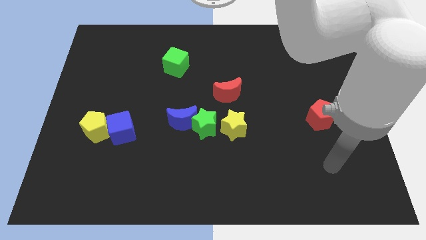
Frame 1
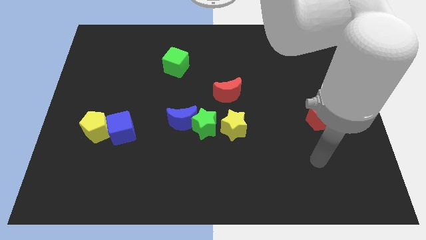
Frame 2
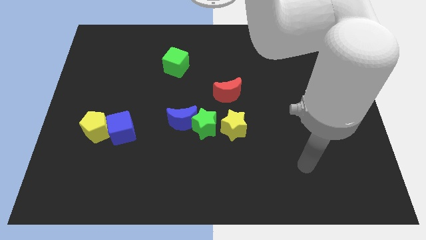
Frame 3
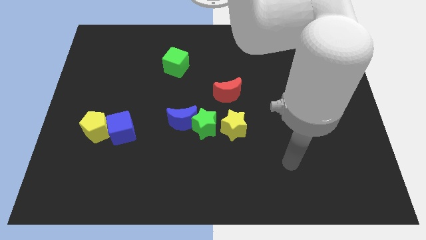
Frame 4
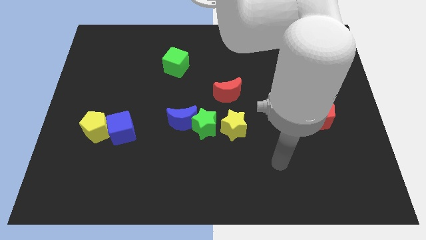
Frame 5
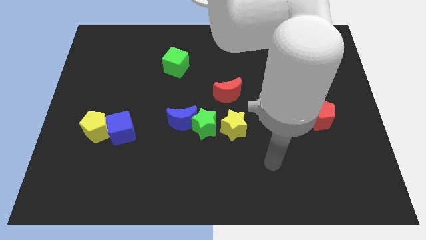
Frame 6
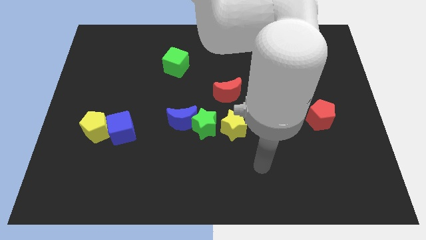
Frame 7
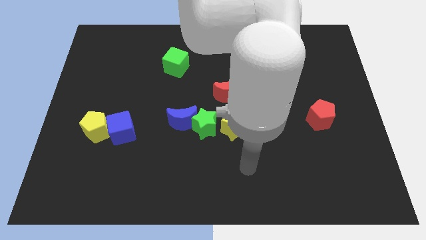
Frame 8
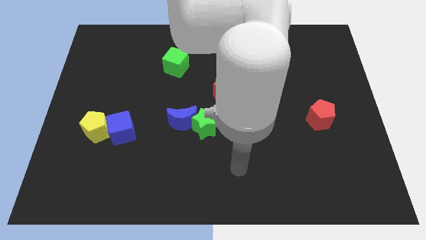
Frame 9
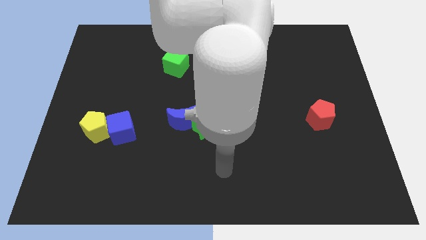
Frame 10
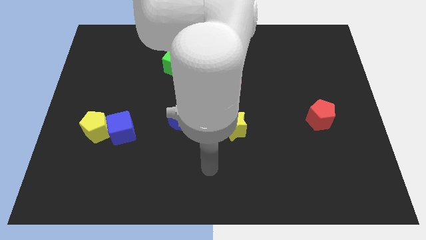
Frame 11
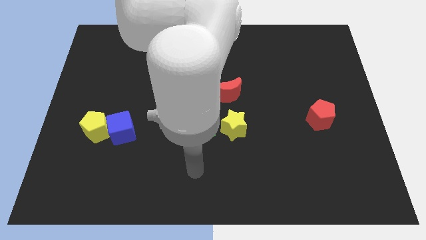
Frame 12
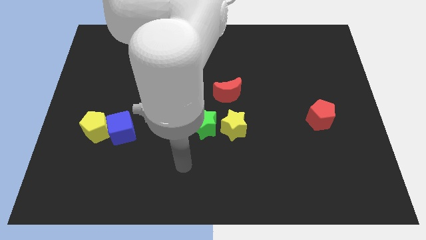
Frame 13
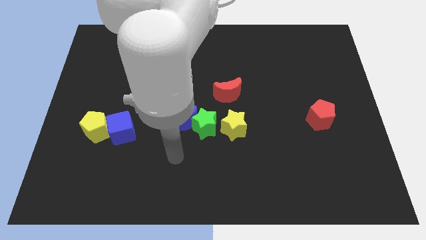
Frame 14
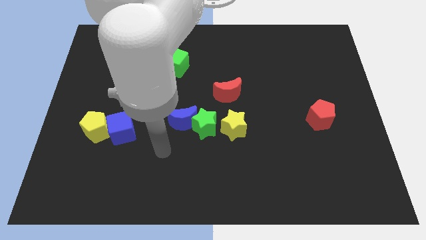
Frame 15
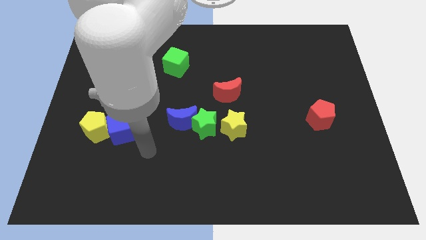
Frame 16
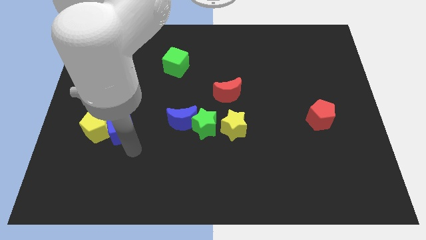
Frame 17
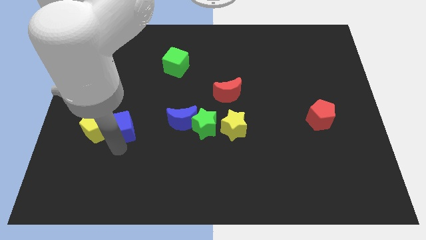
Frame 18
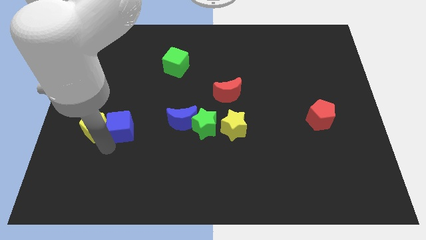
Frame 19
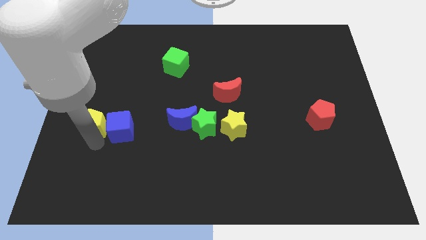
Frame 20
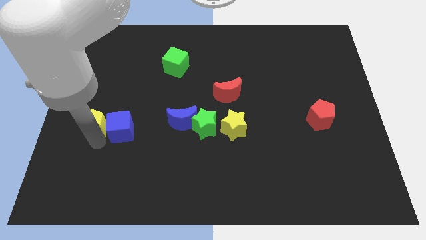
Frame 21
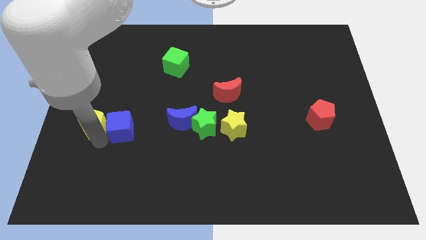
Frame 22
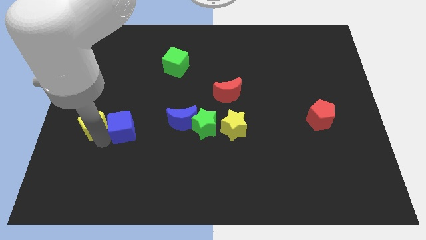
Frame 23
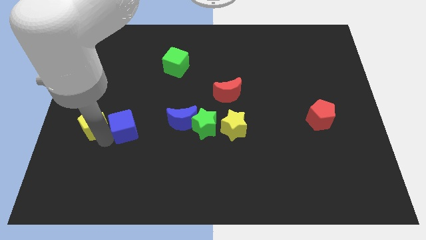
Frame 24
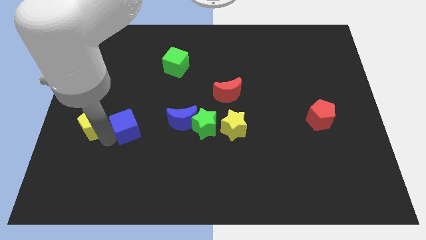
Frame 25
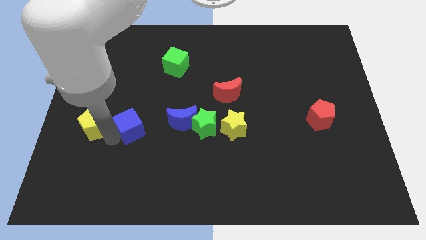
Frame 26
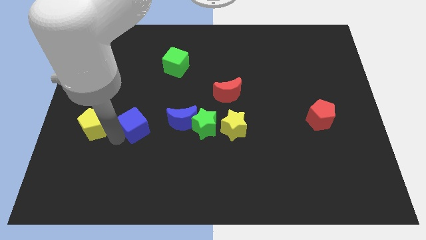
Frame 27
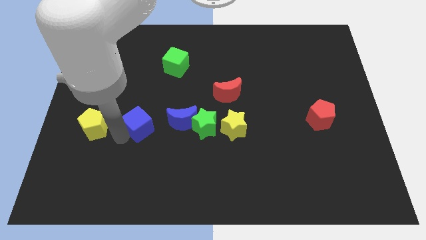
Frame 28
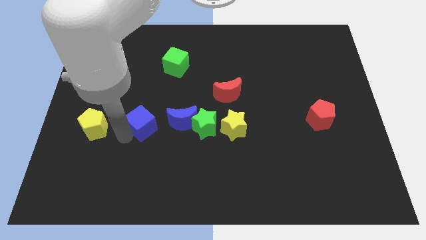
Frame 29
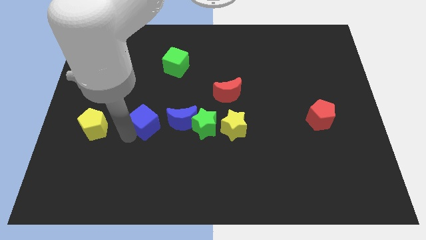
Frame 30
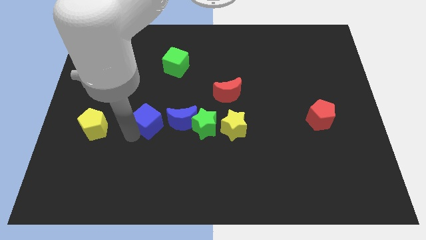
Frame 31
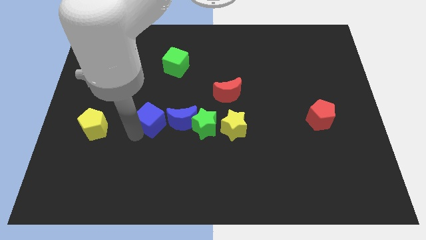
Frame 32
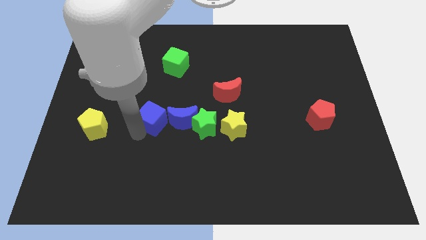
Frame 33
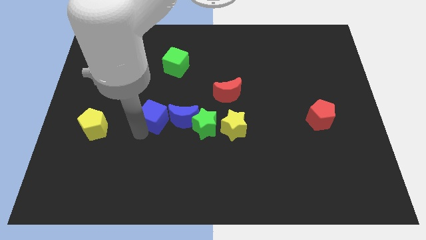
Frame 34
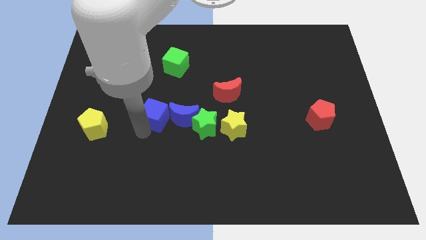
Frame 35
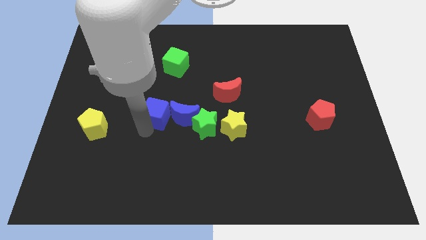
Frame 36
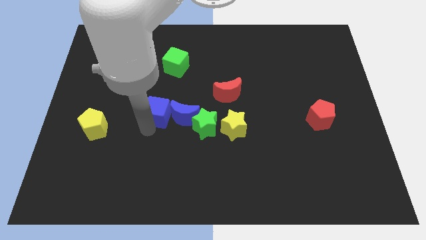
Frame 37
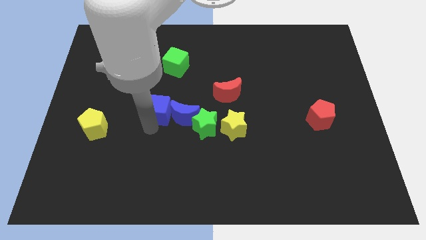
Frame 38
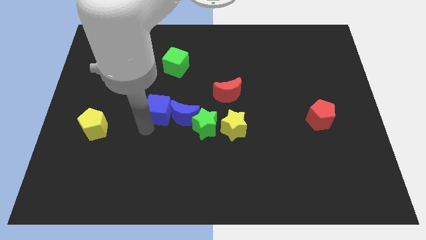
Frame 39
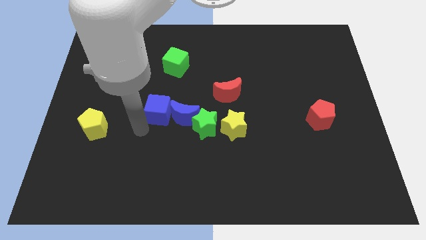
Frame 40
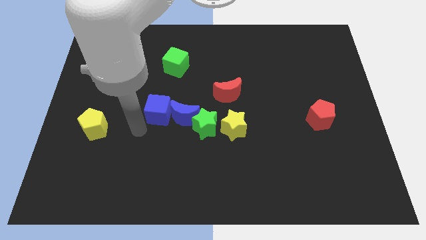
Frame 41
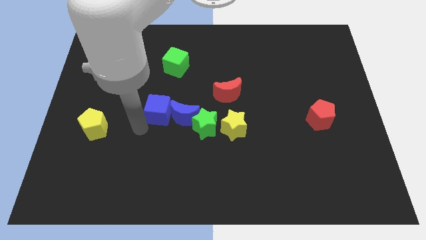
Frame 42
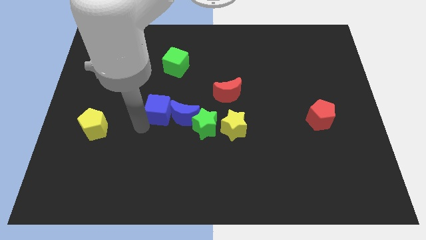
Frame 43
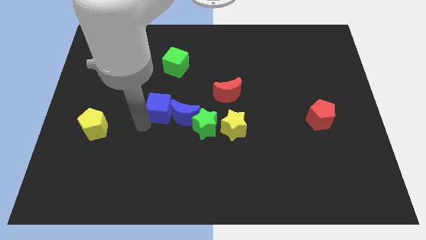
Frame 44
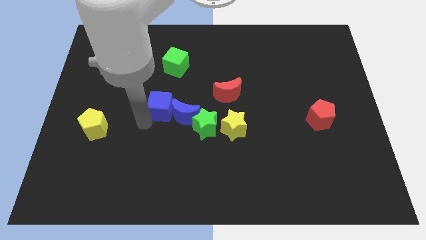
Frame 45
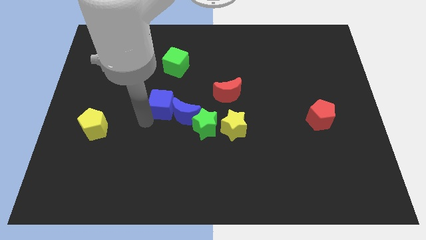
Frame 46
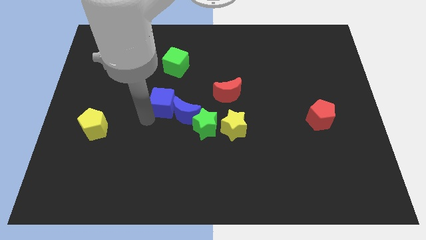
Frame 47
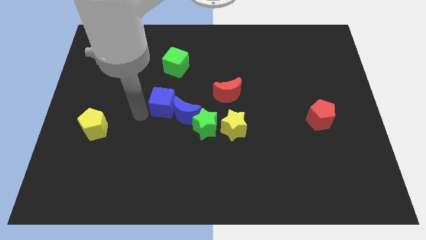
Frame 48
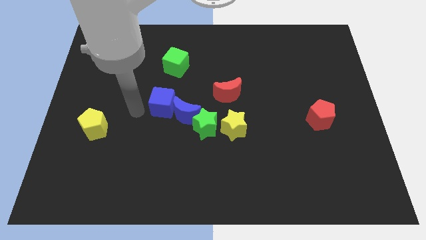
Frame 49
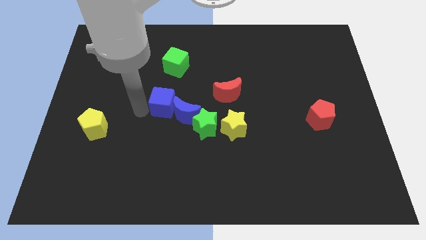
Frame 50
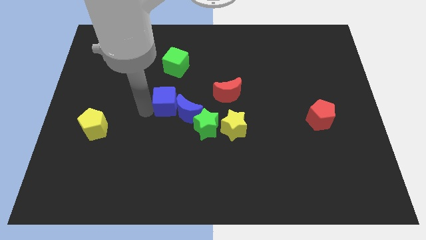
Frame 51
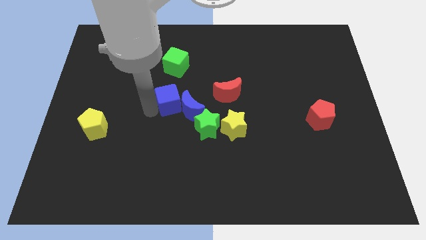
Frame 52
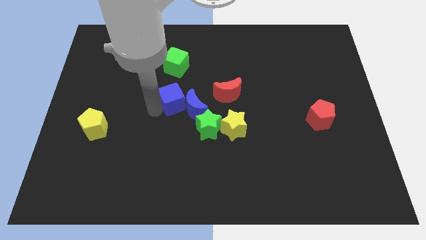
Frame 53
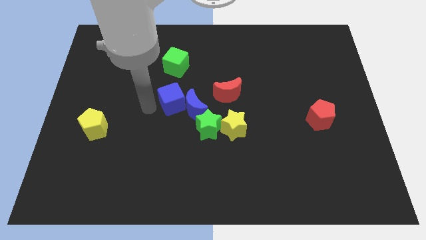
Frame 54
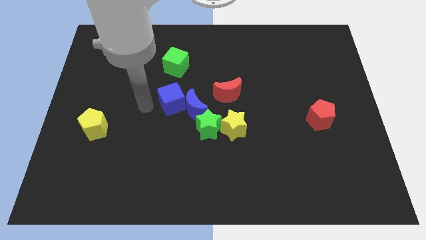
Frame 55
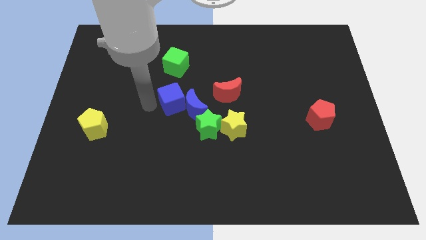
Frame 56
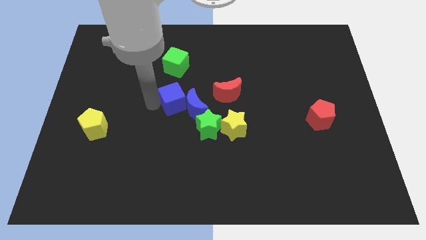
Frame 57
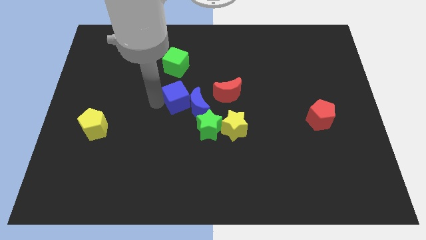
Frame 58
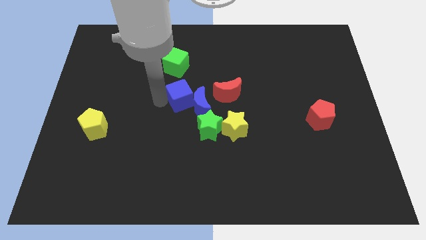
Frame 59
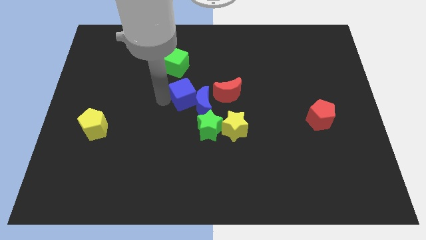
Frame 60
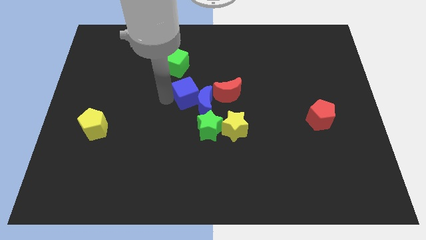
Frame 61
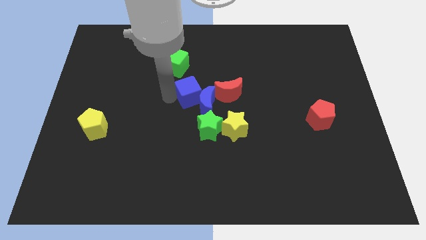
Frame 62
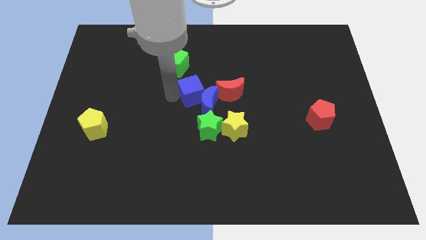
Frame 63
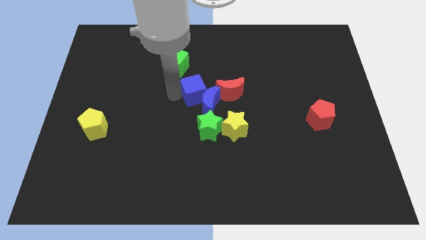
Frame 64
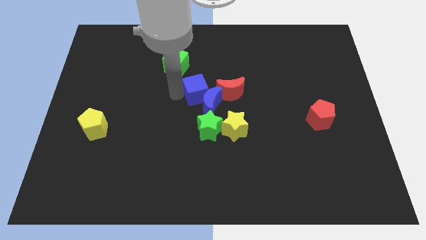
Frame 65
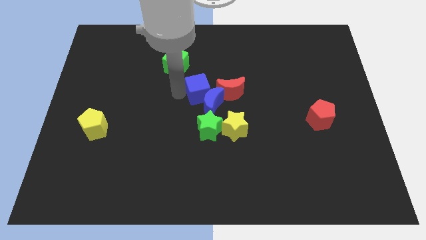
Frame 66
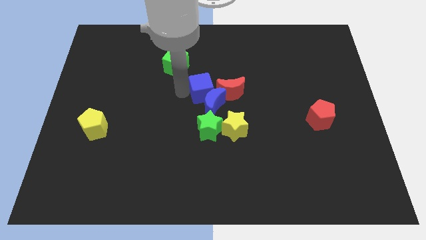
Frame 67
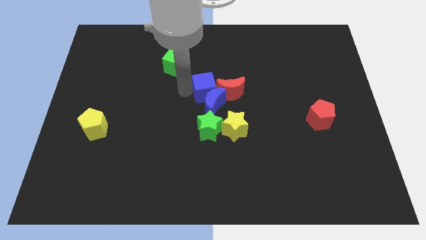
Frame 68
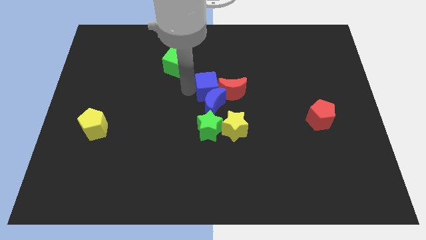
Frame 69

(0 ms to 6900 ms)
move the blue cube next to the red moon

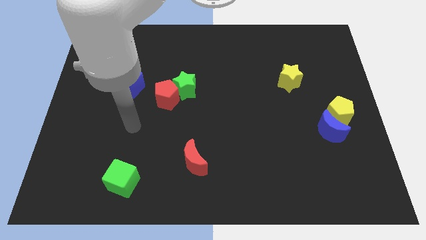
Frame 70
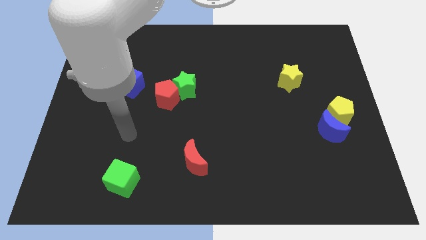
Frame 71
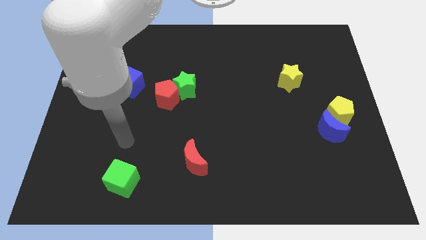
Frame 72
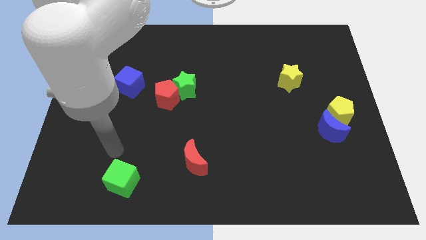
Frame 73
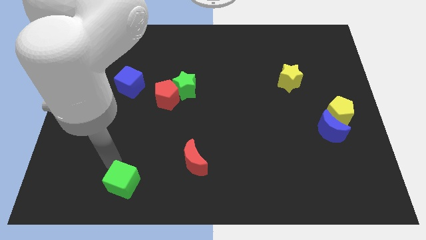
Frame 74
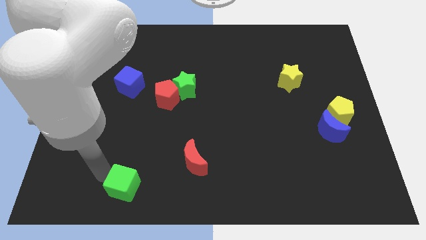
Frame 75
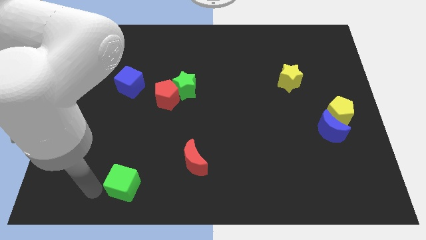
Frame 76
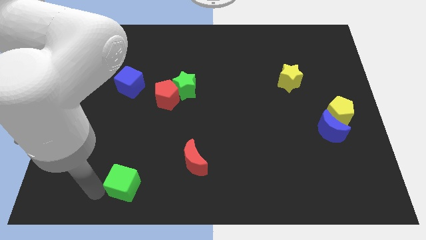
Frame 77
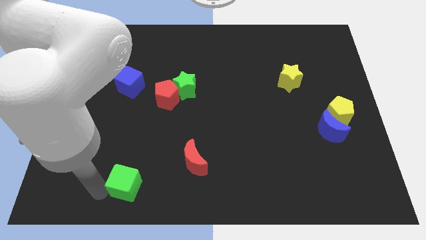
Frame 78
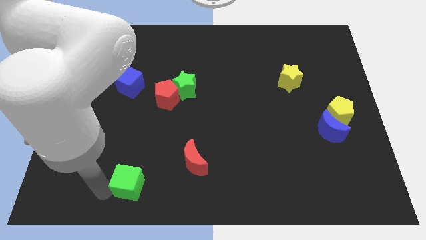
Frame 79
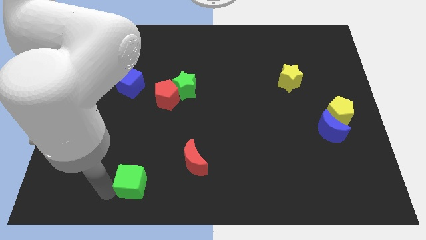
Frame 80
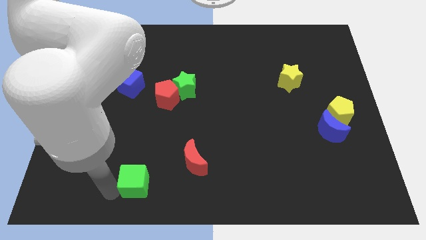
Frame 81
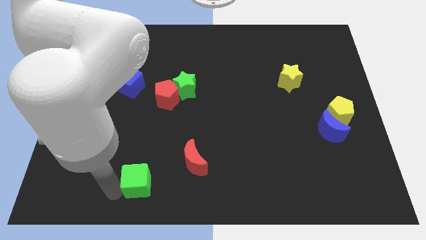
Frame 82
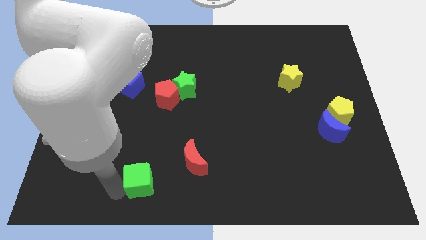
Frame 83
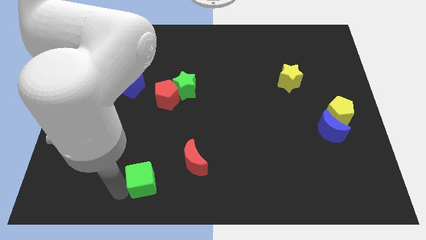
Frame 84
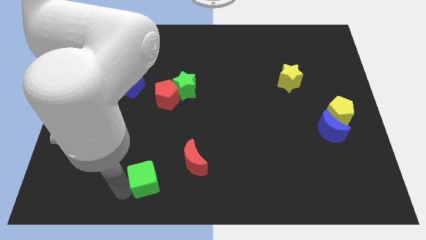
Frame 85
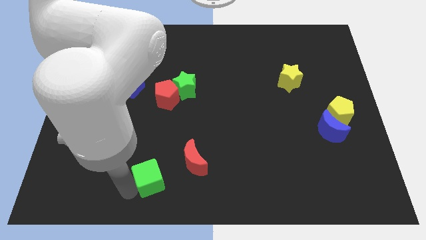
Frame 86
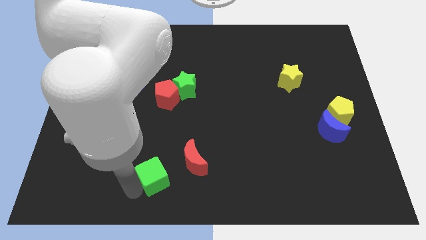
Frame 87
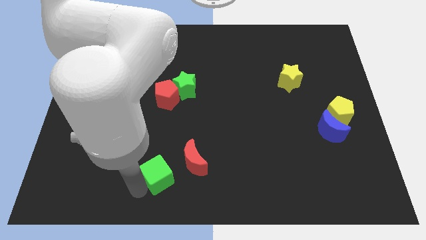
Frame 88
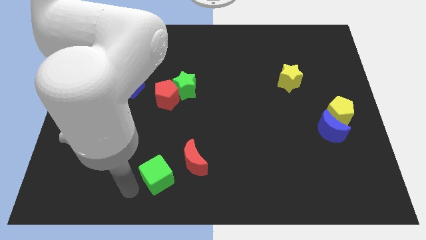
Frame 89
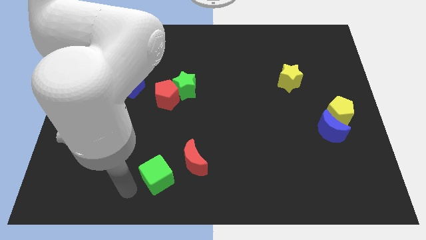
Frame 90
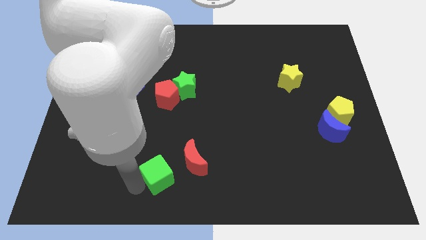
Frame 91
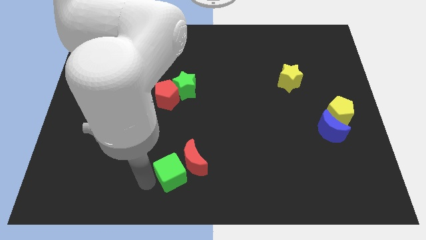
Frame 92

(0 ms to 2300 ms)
slide the green cube towards the red moon
